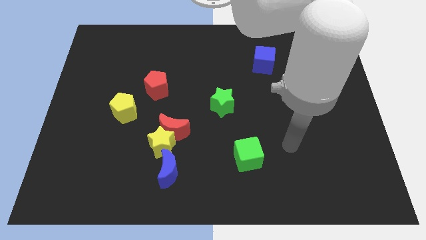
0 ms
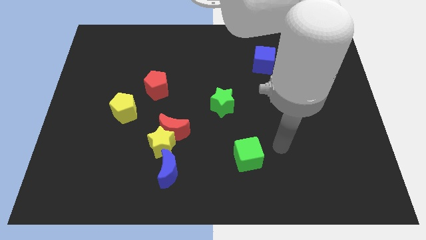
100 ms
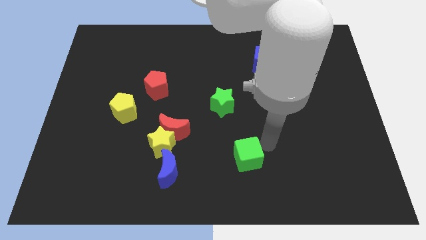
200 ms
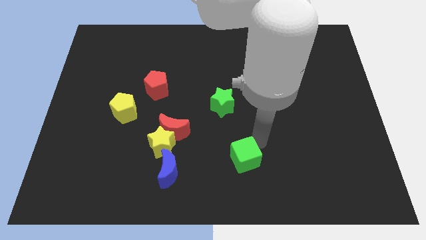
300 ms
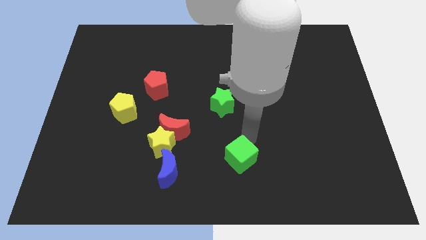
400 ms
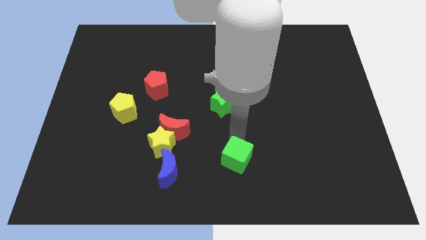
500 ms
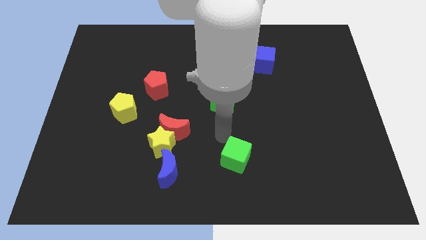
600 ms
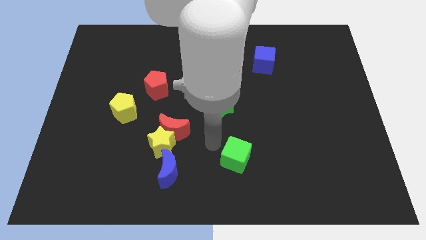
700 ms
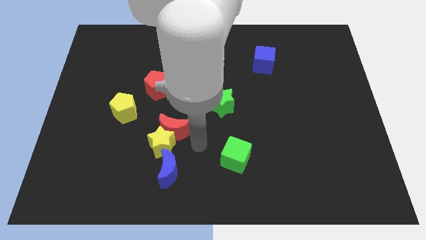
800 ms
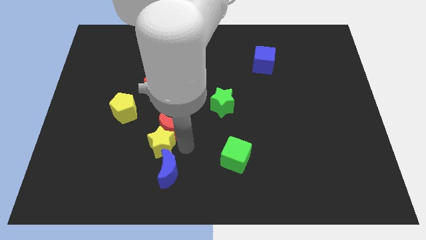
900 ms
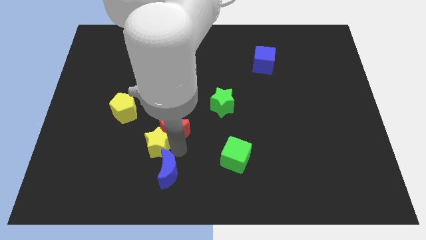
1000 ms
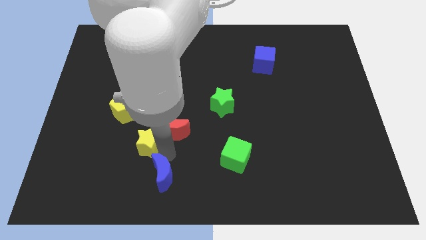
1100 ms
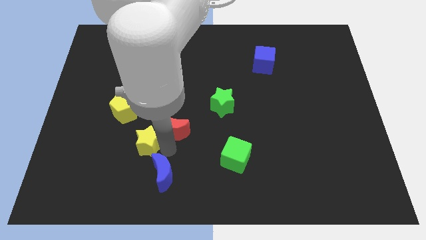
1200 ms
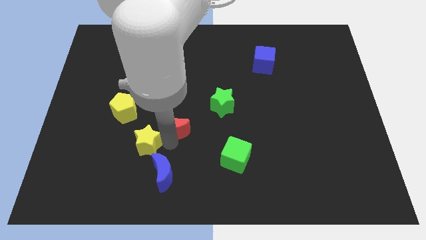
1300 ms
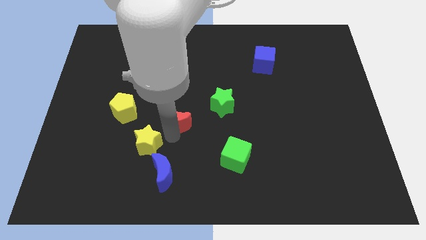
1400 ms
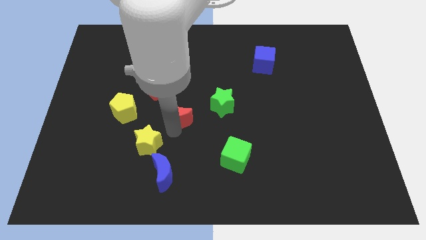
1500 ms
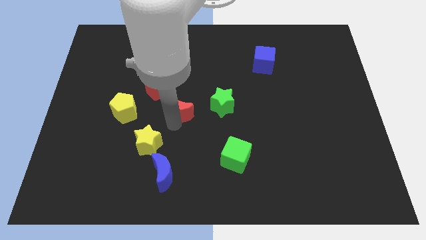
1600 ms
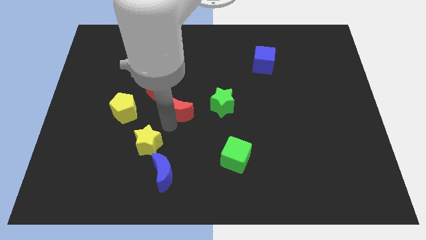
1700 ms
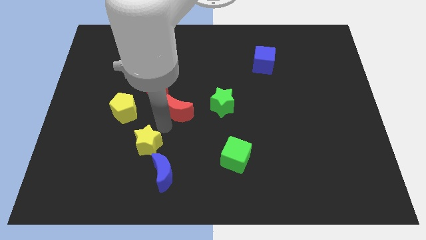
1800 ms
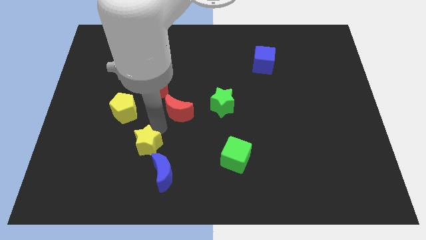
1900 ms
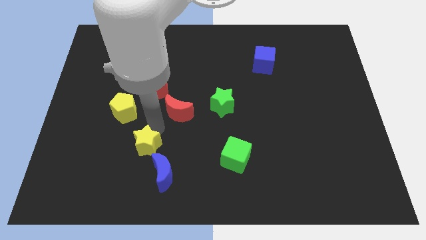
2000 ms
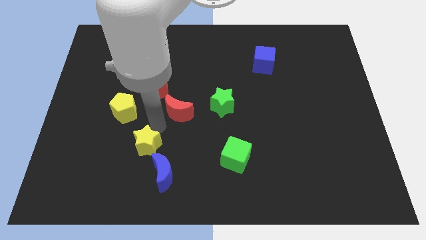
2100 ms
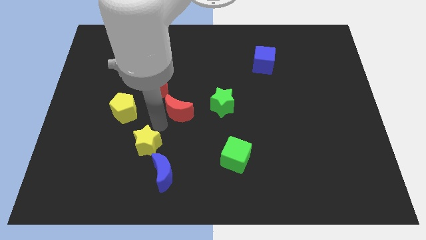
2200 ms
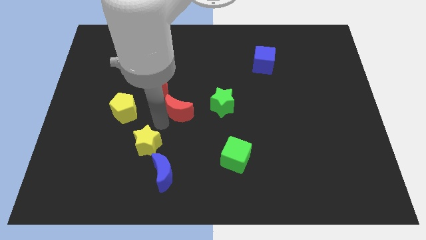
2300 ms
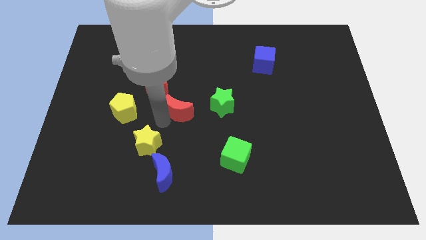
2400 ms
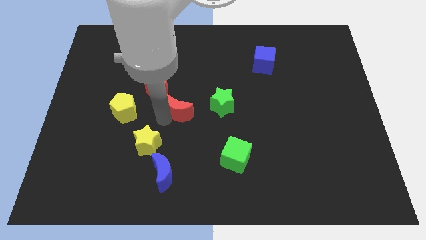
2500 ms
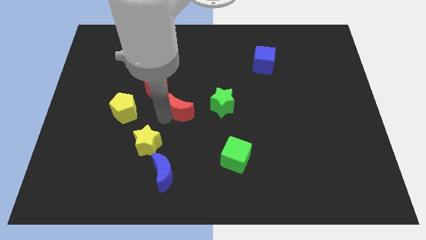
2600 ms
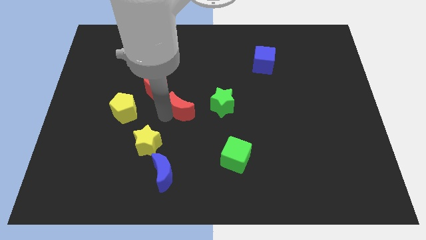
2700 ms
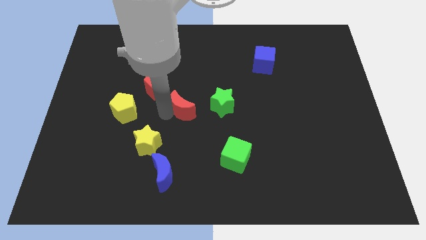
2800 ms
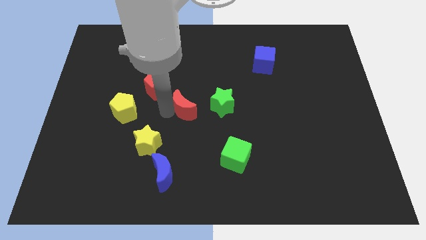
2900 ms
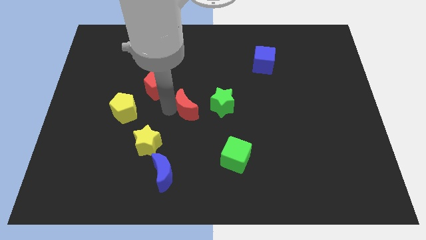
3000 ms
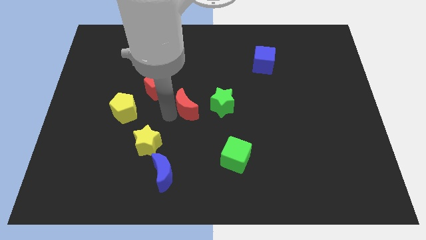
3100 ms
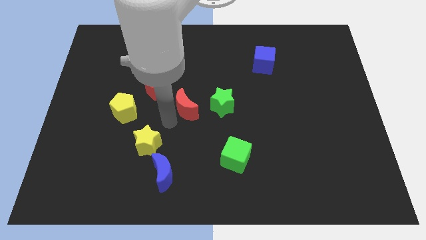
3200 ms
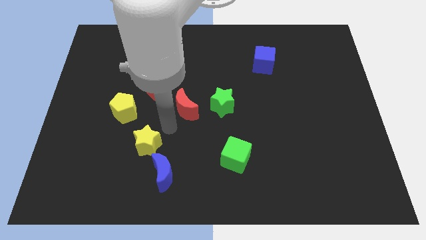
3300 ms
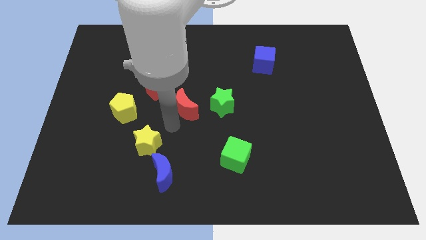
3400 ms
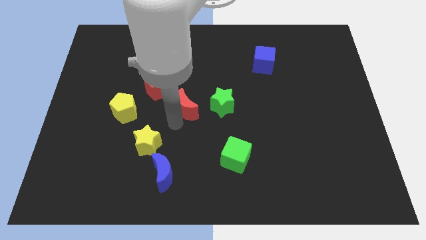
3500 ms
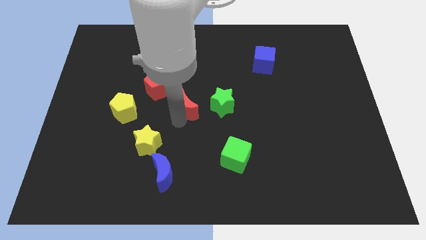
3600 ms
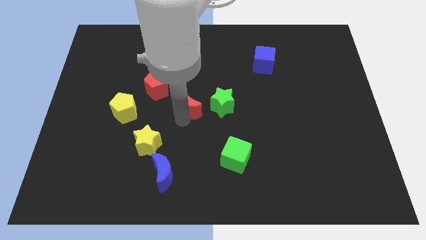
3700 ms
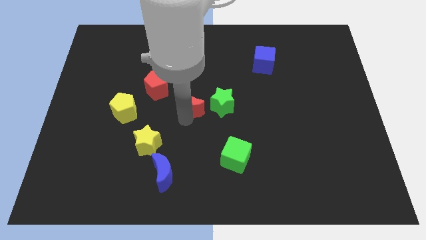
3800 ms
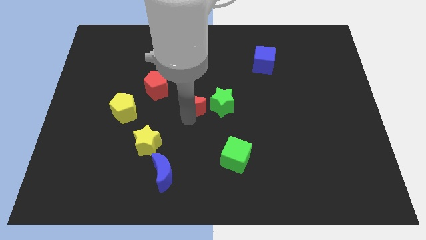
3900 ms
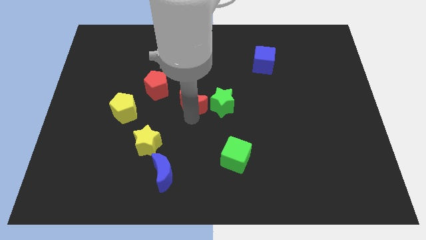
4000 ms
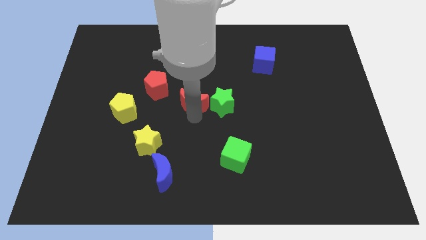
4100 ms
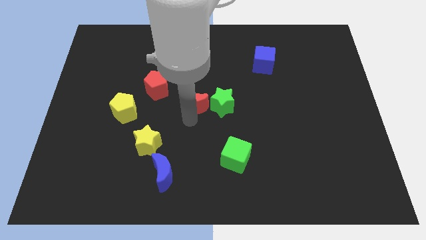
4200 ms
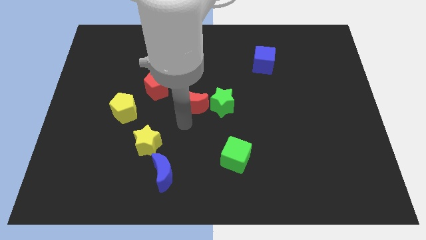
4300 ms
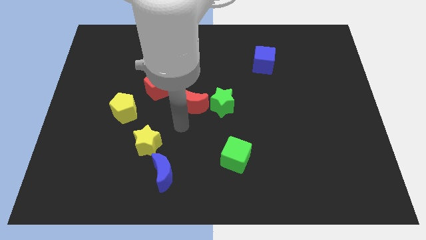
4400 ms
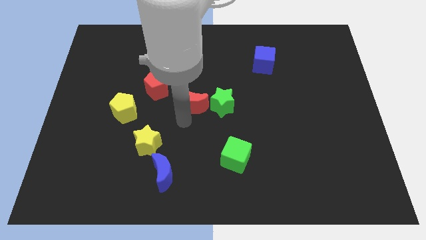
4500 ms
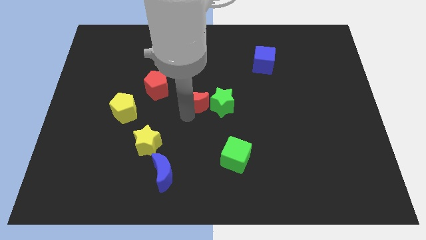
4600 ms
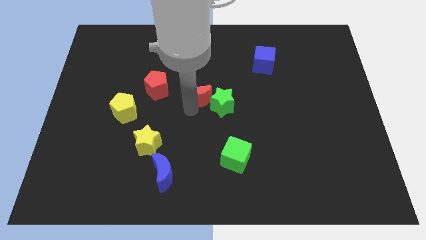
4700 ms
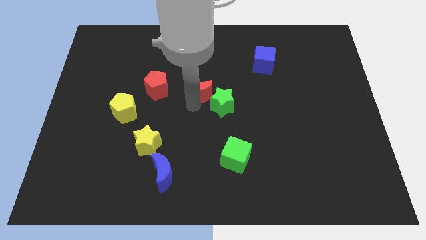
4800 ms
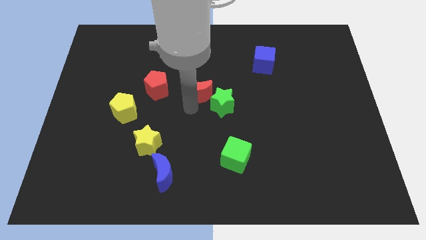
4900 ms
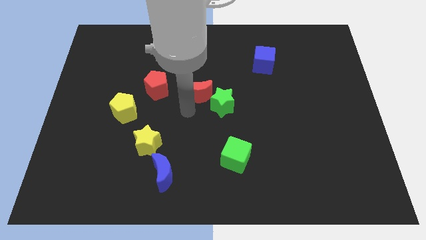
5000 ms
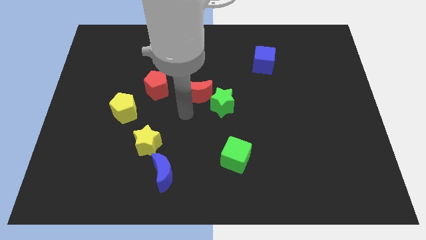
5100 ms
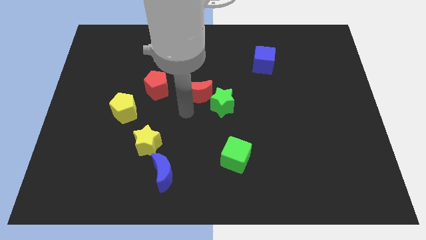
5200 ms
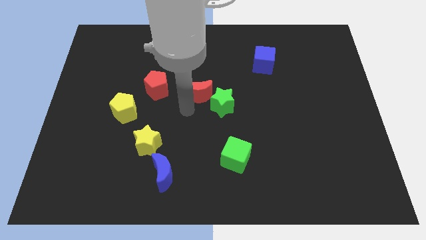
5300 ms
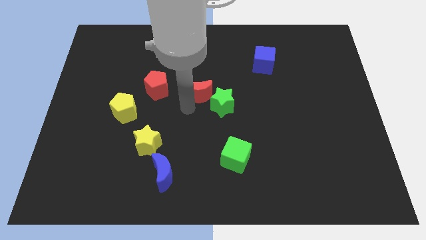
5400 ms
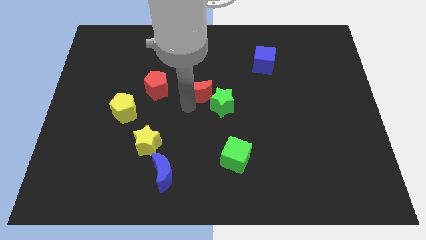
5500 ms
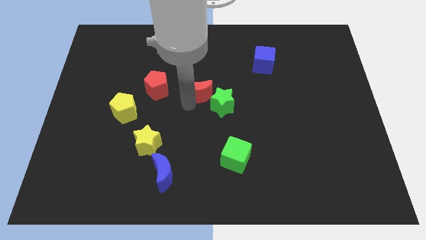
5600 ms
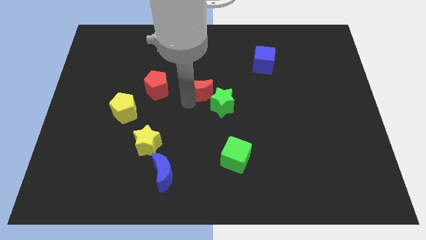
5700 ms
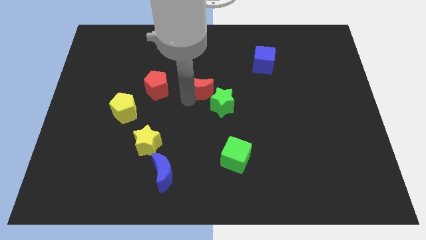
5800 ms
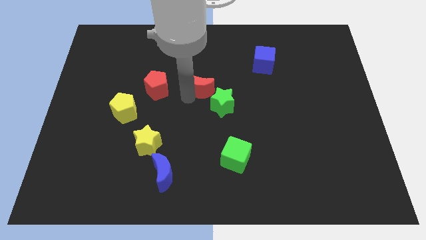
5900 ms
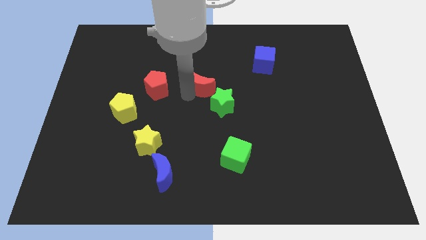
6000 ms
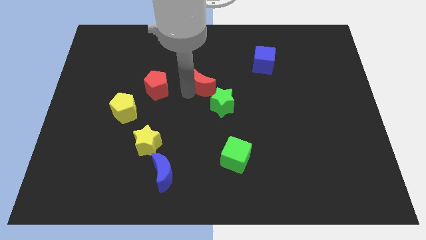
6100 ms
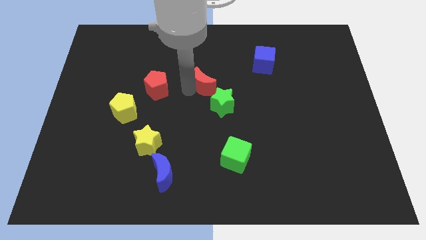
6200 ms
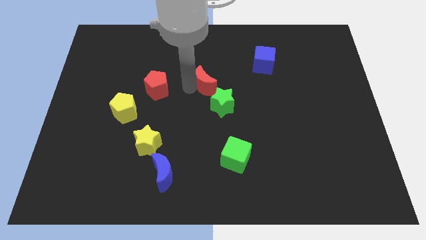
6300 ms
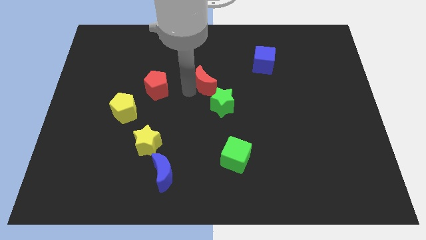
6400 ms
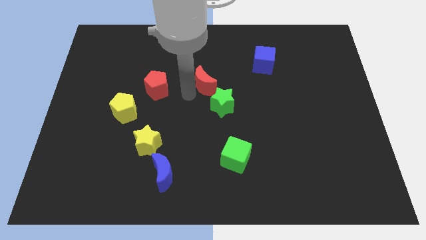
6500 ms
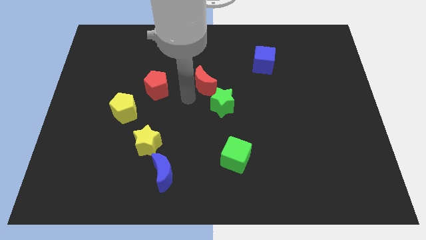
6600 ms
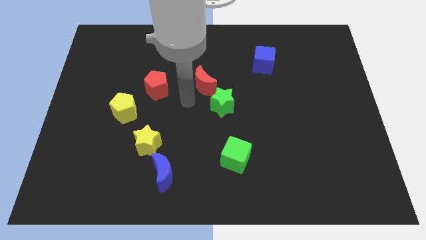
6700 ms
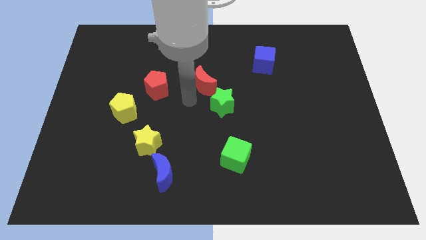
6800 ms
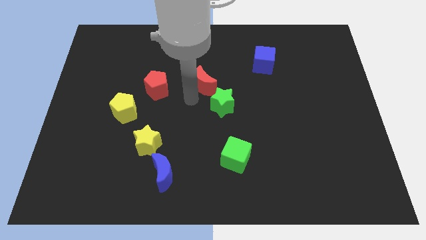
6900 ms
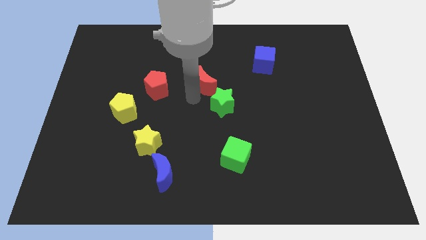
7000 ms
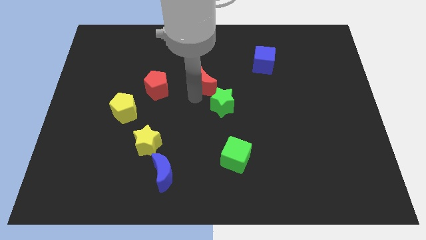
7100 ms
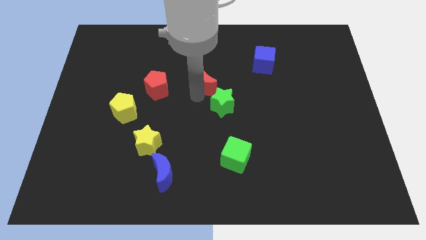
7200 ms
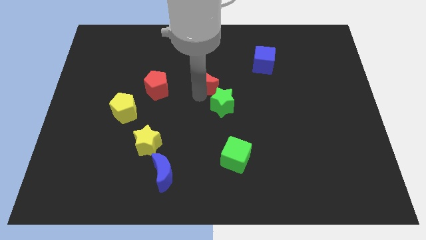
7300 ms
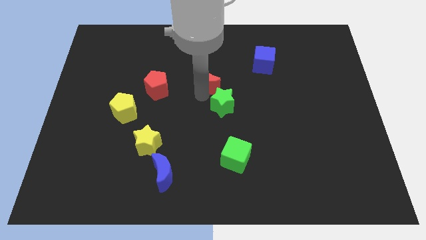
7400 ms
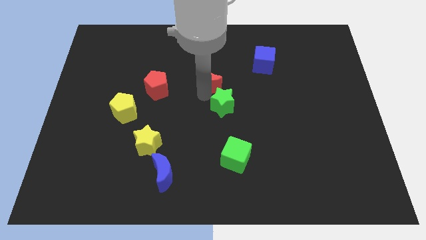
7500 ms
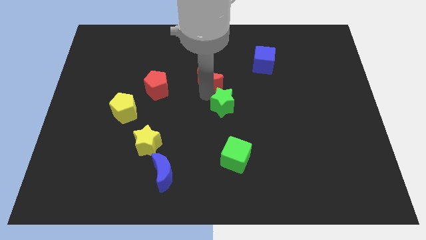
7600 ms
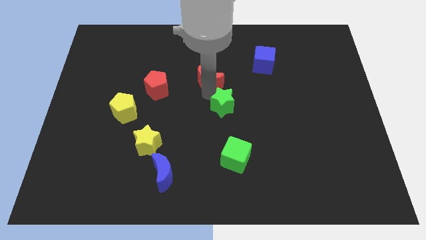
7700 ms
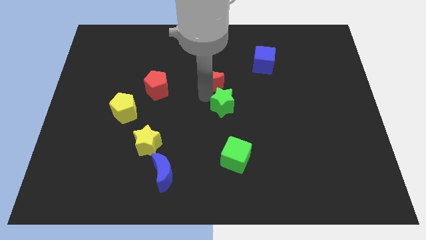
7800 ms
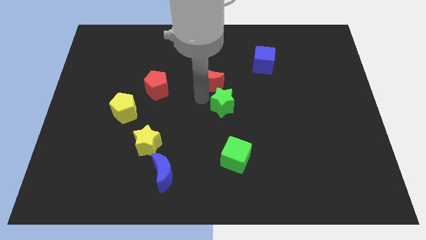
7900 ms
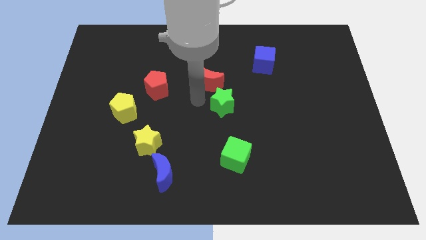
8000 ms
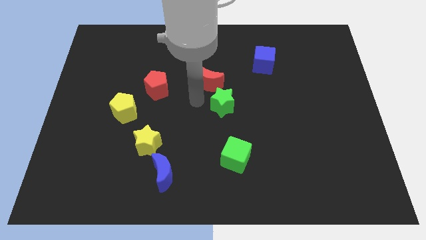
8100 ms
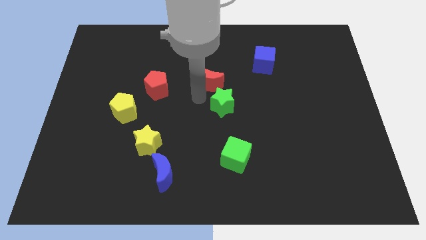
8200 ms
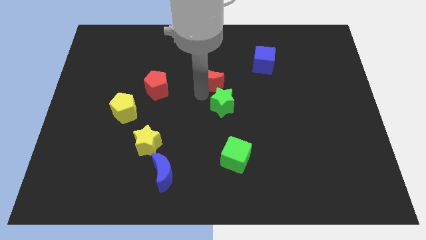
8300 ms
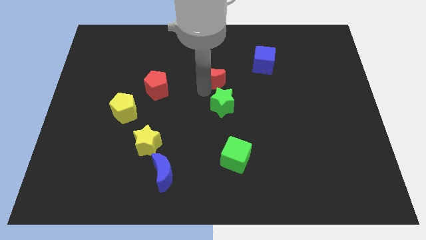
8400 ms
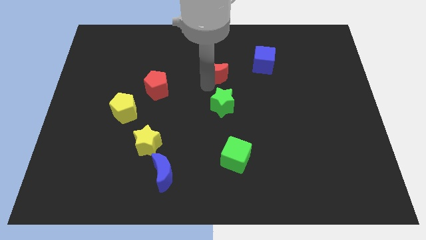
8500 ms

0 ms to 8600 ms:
slide the red moon just left of the blue cube
